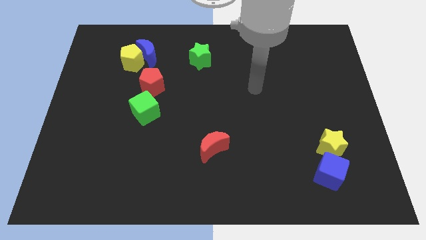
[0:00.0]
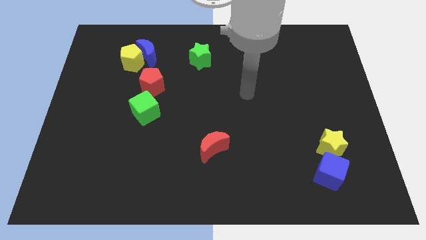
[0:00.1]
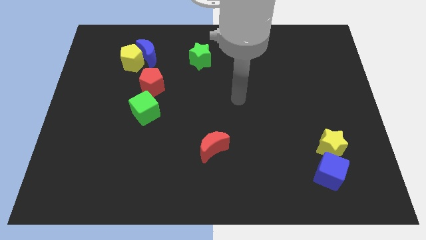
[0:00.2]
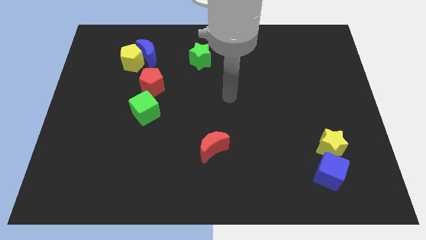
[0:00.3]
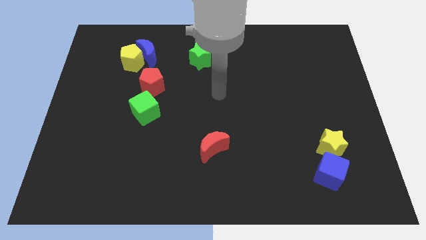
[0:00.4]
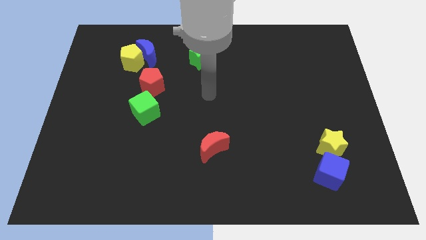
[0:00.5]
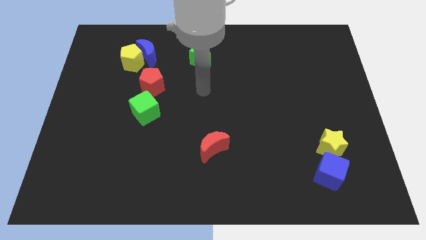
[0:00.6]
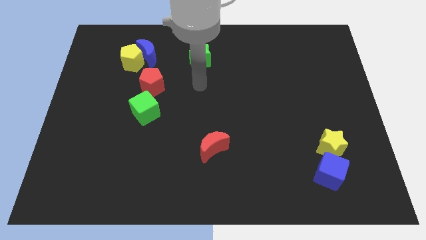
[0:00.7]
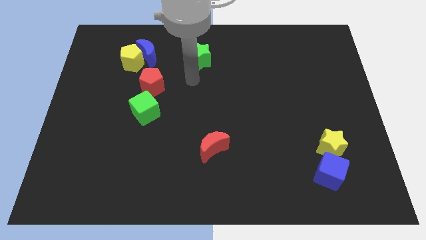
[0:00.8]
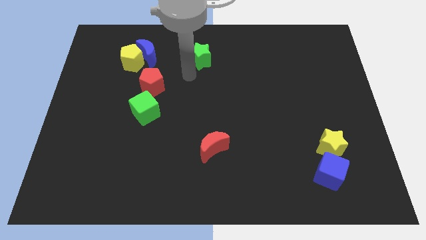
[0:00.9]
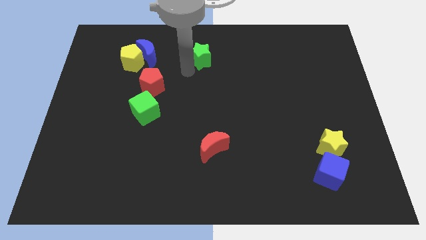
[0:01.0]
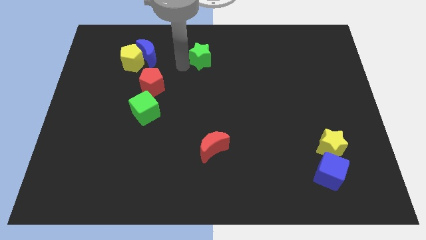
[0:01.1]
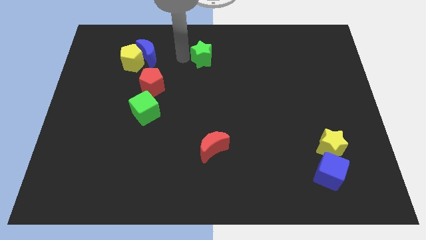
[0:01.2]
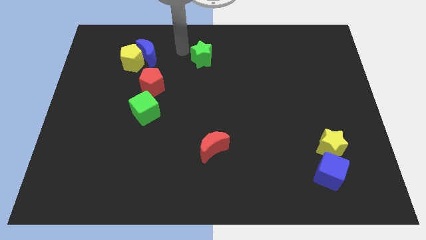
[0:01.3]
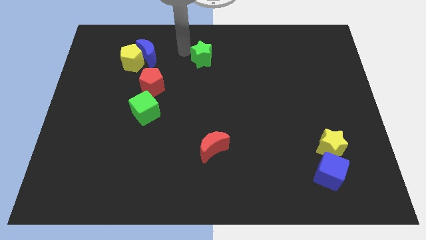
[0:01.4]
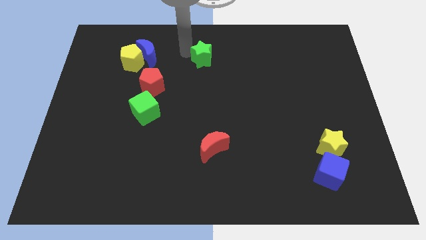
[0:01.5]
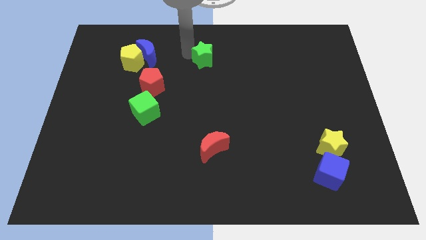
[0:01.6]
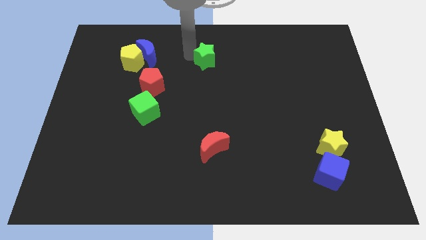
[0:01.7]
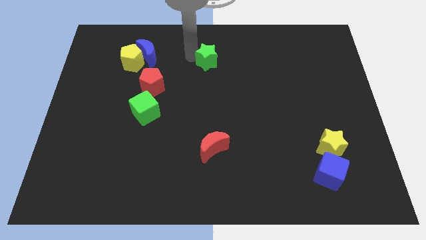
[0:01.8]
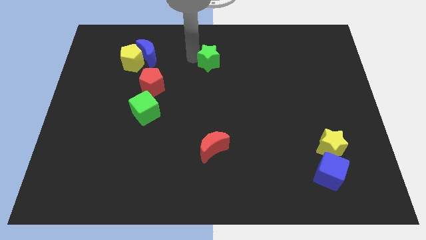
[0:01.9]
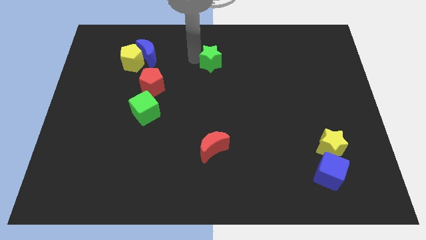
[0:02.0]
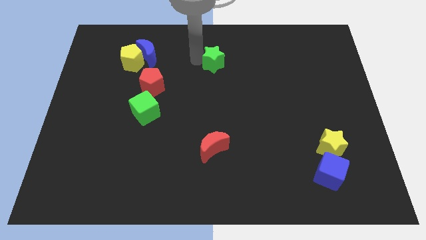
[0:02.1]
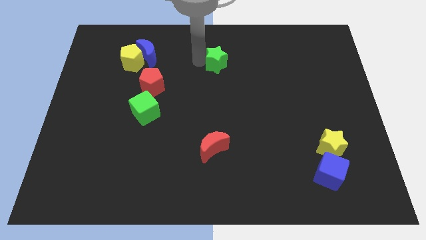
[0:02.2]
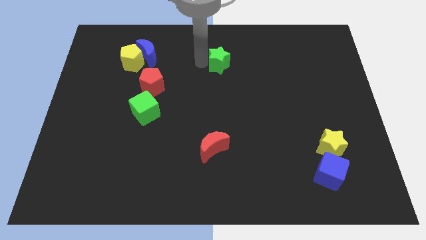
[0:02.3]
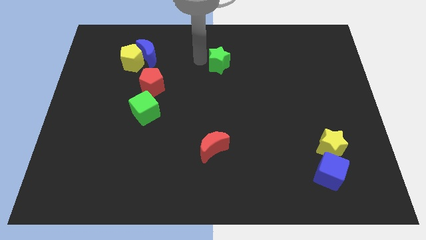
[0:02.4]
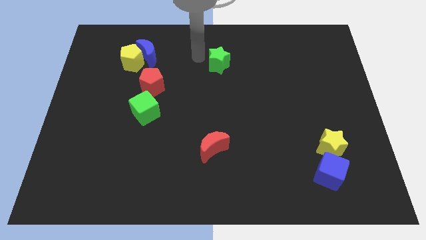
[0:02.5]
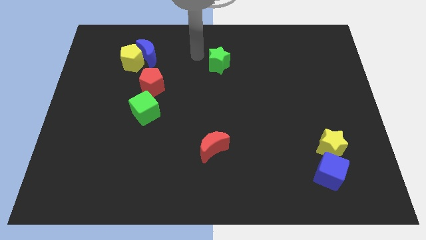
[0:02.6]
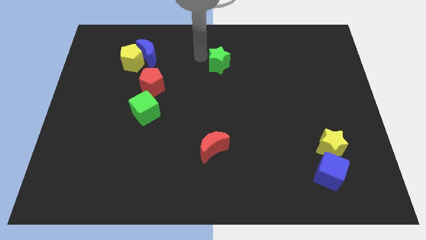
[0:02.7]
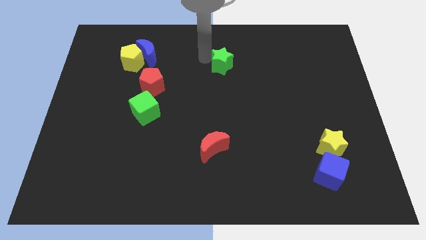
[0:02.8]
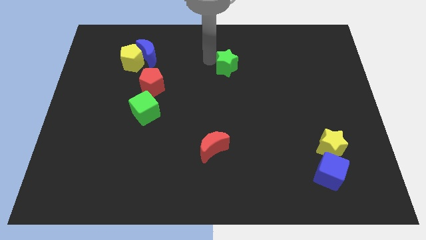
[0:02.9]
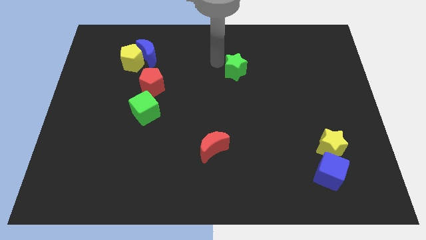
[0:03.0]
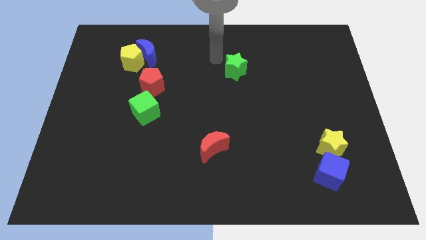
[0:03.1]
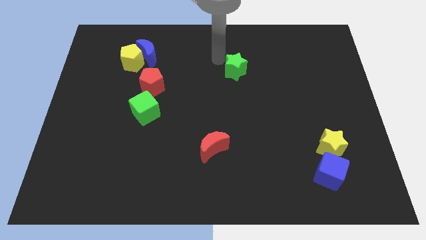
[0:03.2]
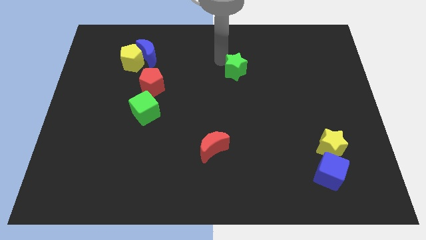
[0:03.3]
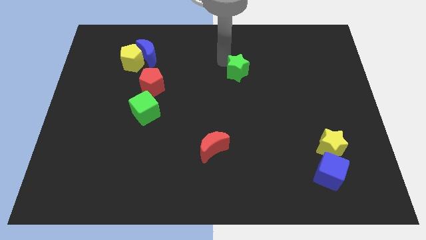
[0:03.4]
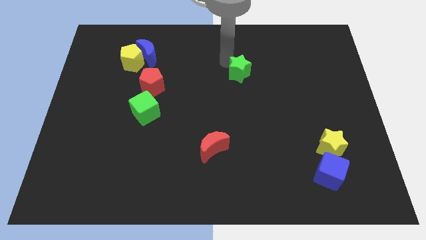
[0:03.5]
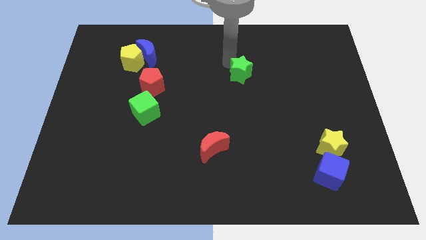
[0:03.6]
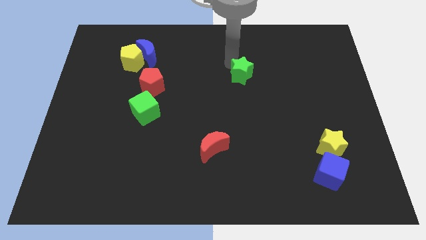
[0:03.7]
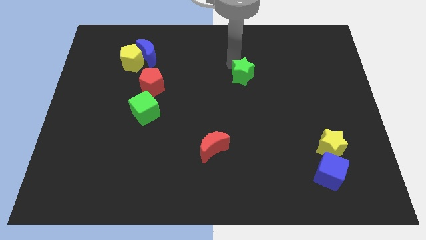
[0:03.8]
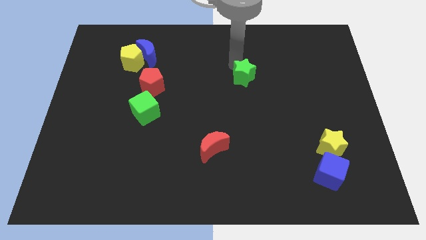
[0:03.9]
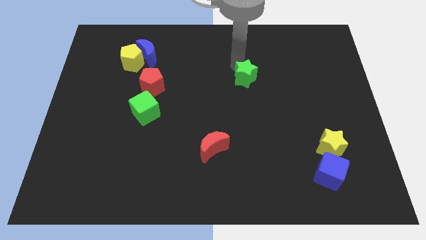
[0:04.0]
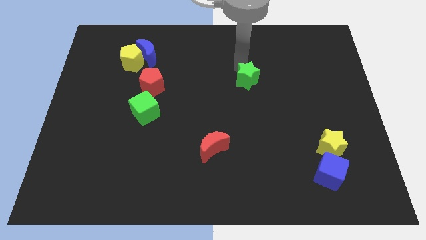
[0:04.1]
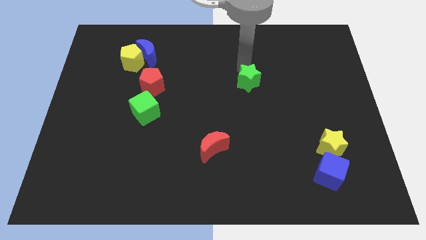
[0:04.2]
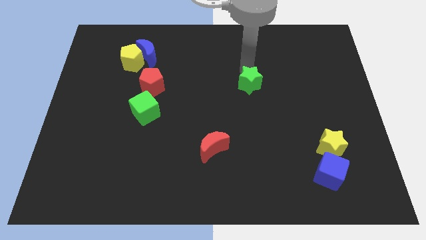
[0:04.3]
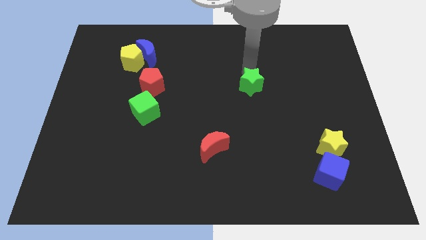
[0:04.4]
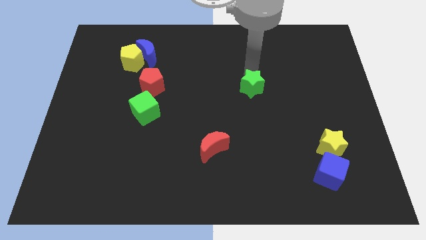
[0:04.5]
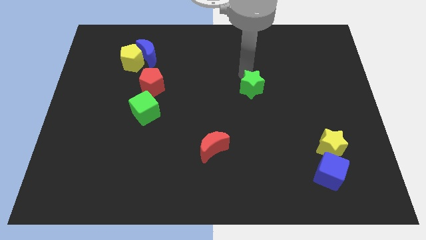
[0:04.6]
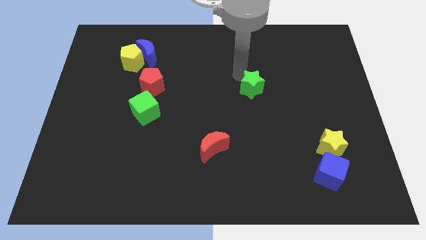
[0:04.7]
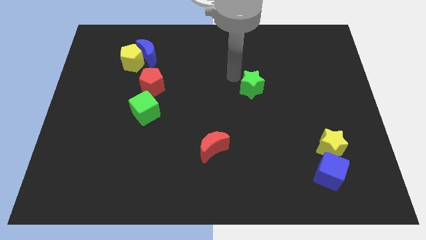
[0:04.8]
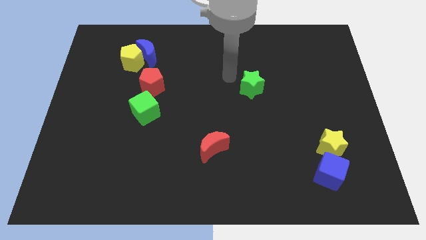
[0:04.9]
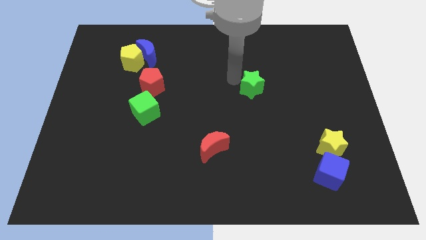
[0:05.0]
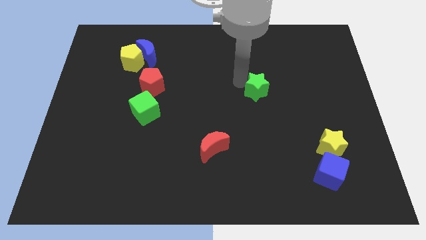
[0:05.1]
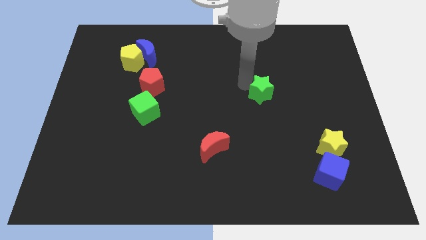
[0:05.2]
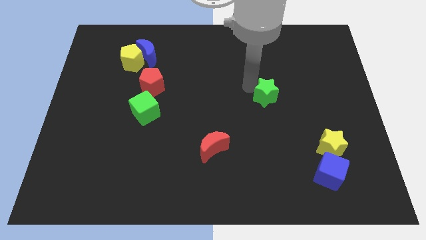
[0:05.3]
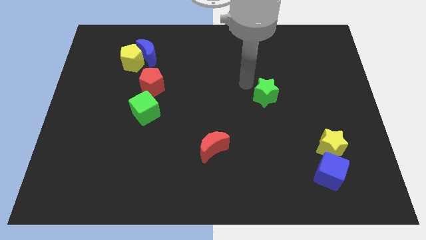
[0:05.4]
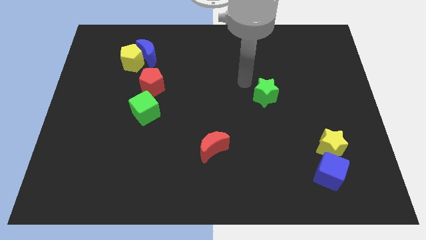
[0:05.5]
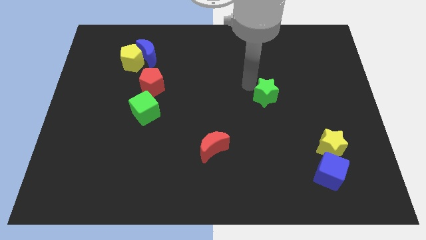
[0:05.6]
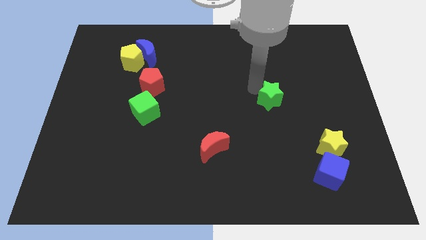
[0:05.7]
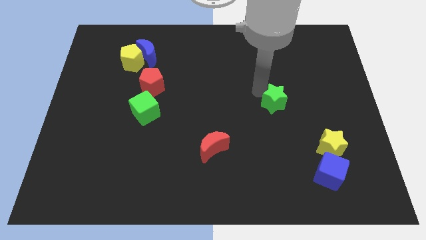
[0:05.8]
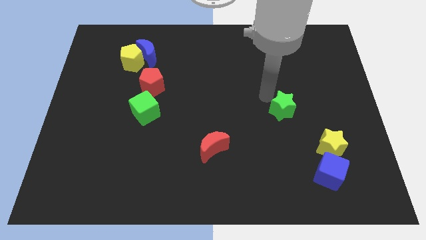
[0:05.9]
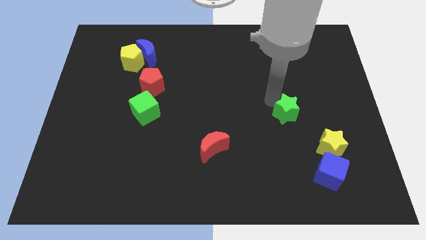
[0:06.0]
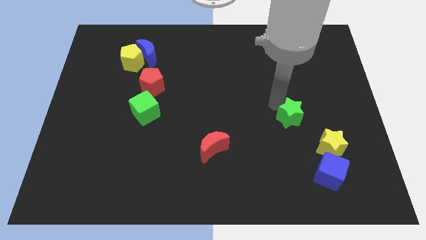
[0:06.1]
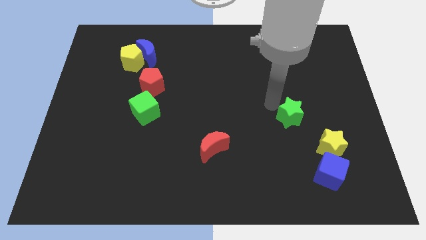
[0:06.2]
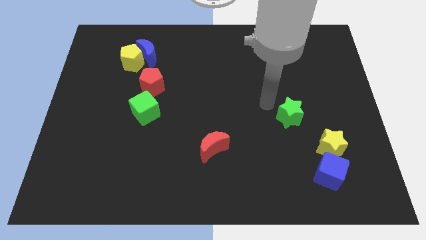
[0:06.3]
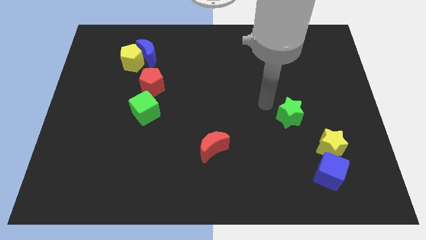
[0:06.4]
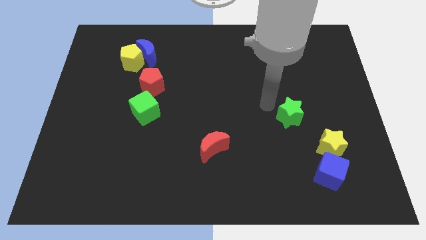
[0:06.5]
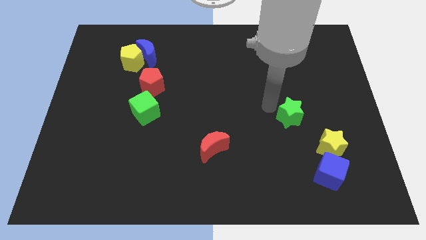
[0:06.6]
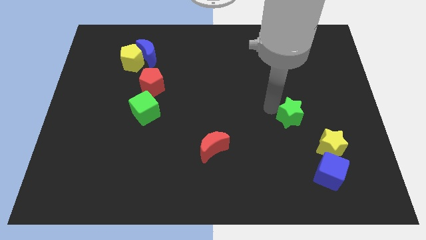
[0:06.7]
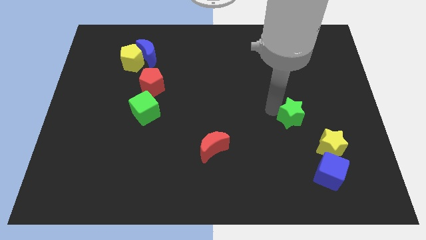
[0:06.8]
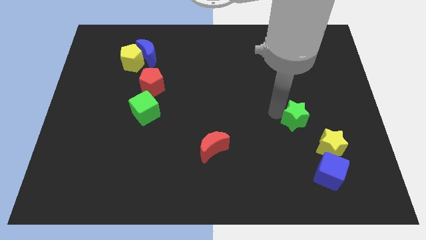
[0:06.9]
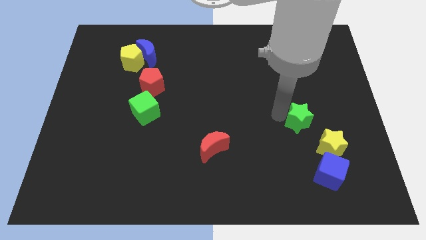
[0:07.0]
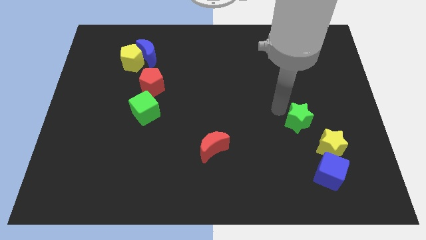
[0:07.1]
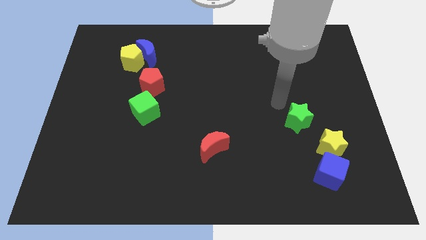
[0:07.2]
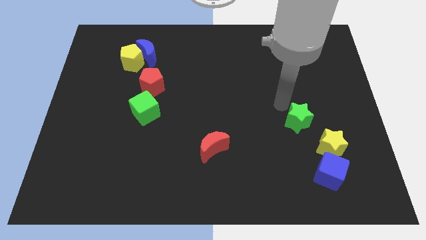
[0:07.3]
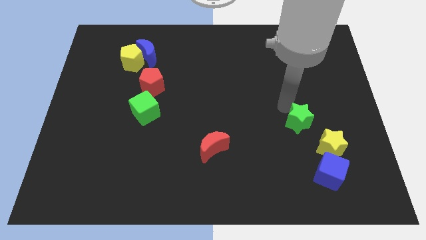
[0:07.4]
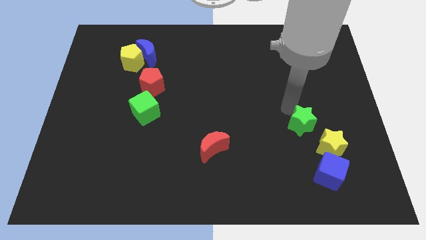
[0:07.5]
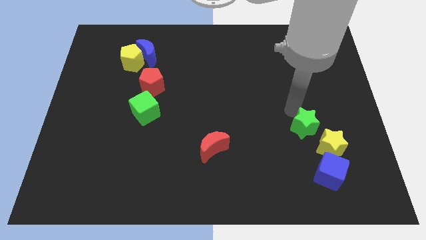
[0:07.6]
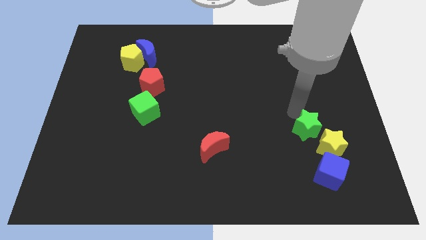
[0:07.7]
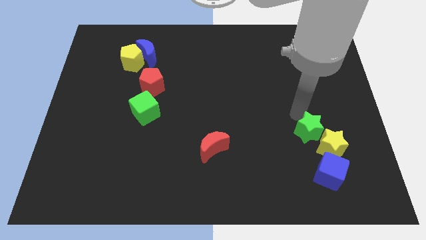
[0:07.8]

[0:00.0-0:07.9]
put the green star to the yellow star
